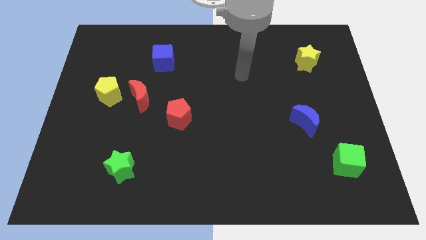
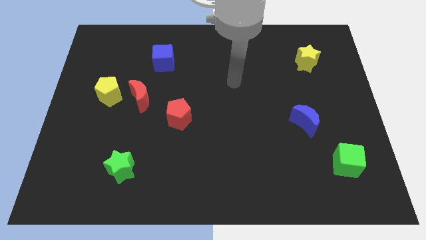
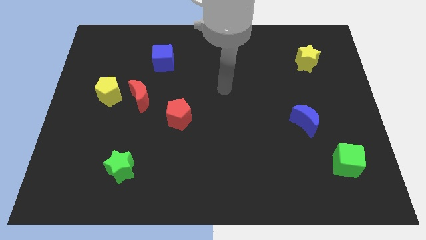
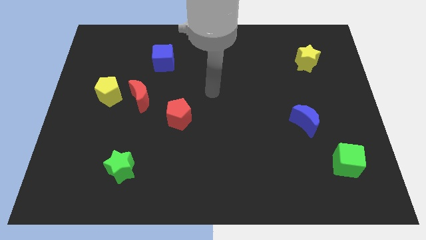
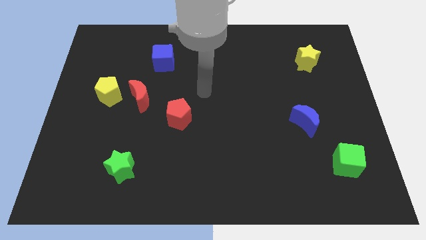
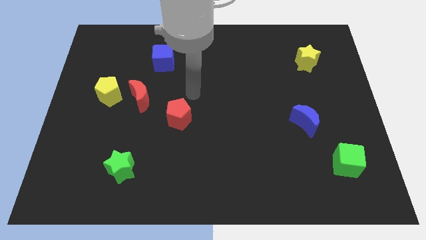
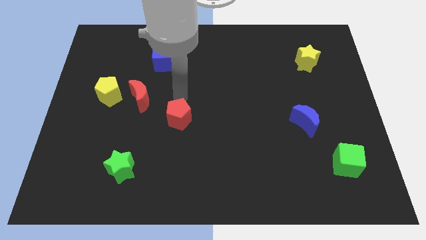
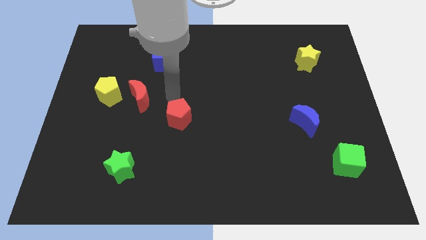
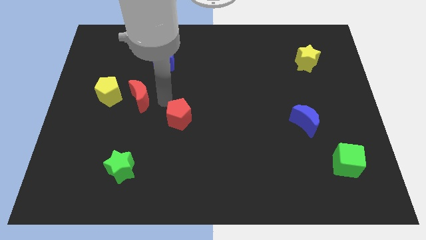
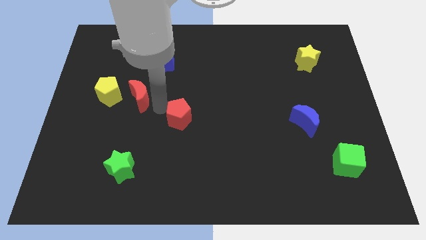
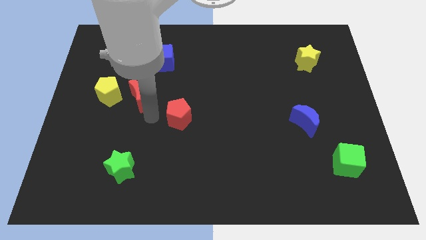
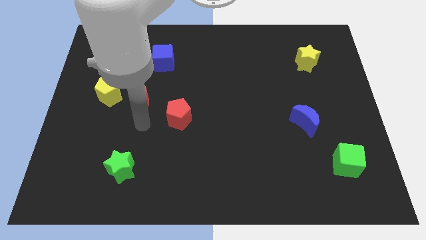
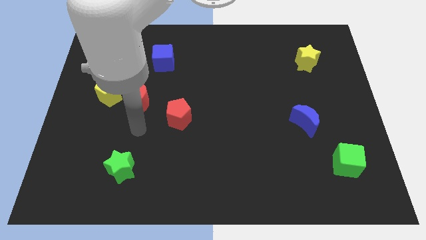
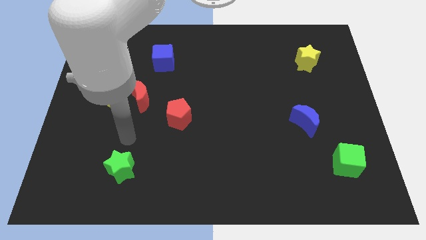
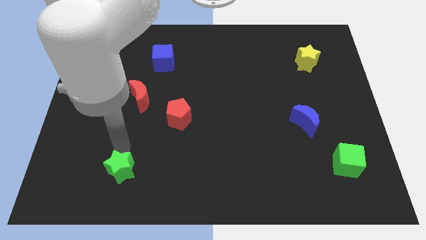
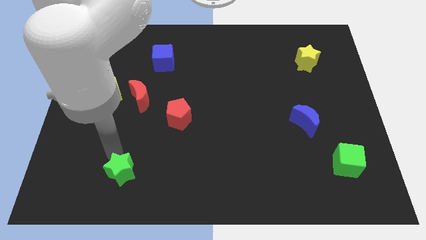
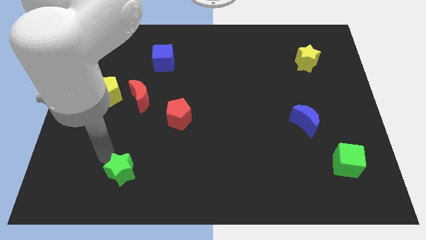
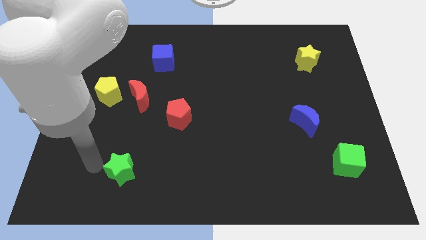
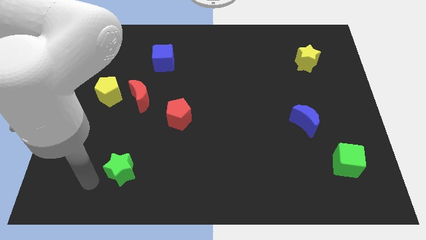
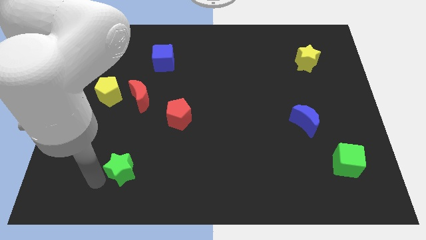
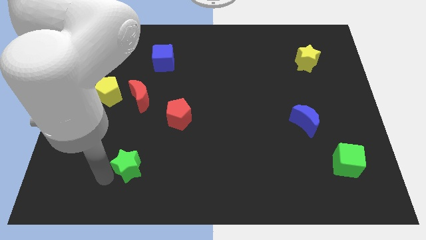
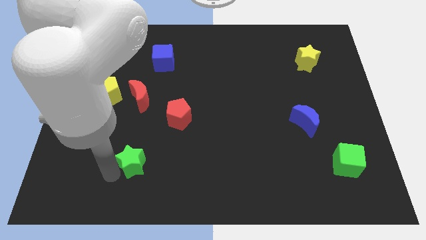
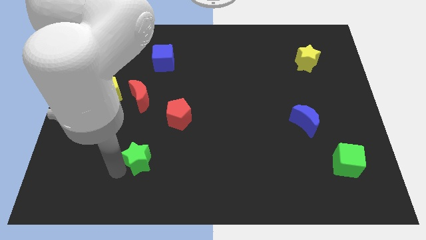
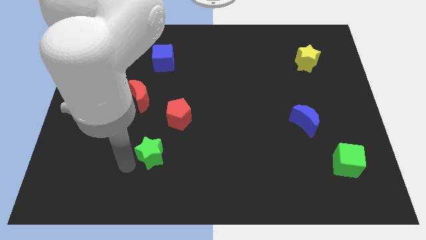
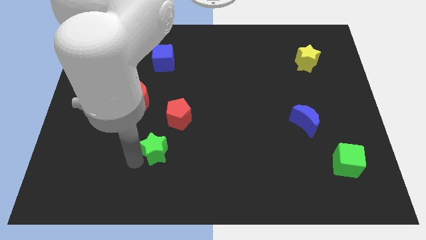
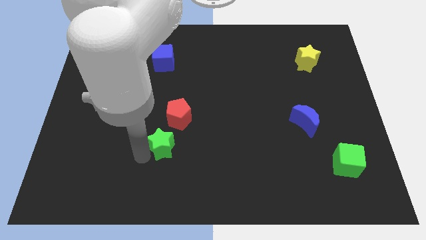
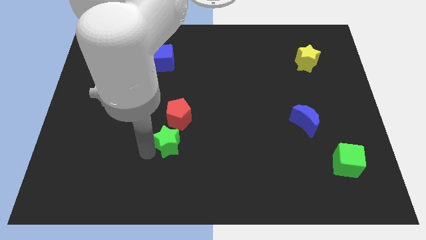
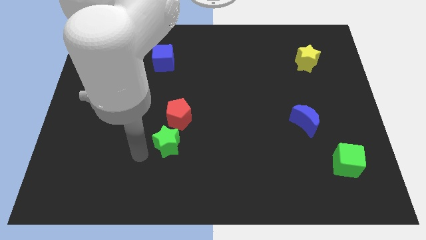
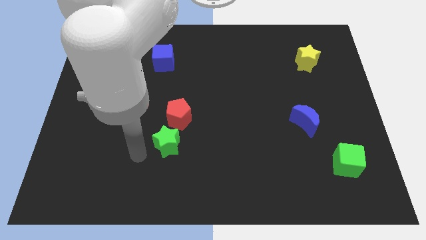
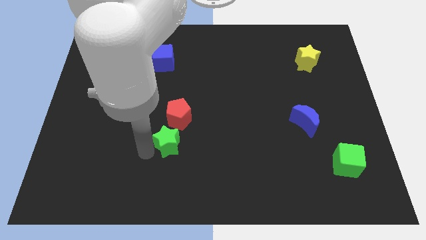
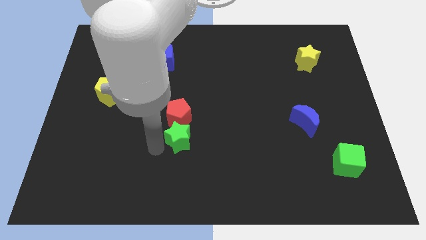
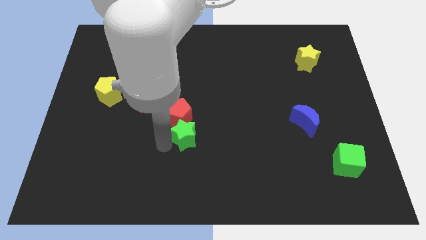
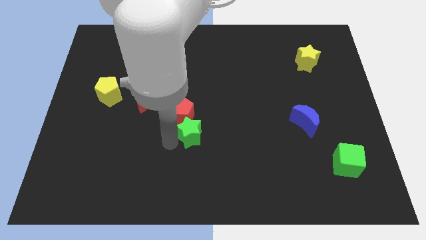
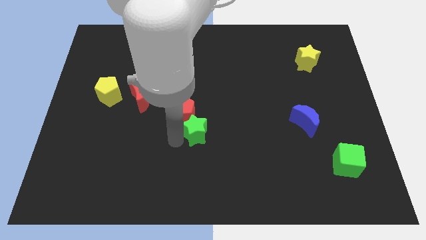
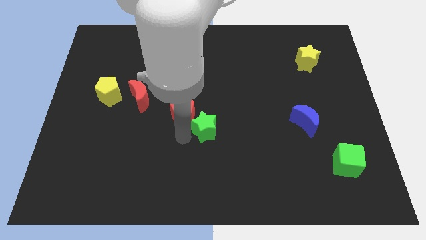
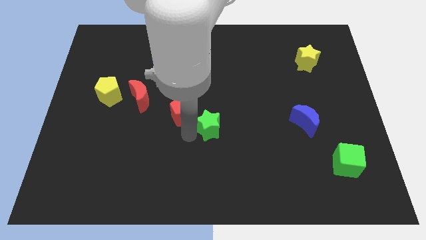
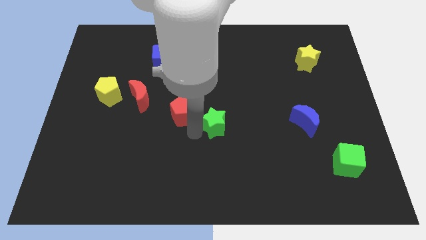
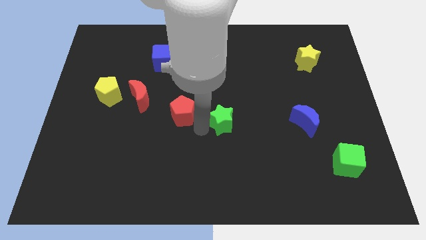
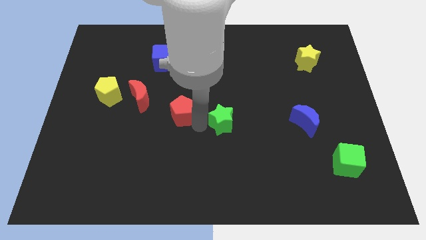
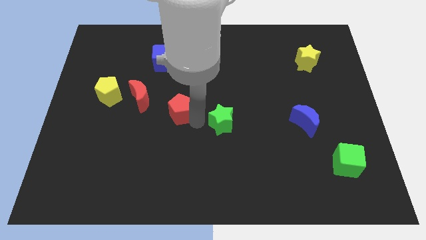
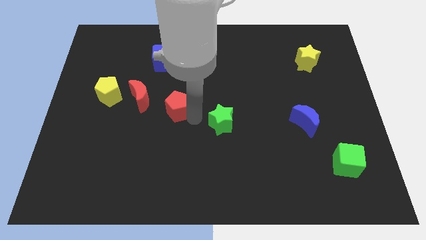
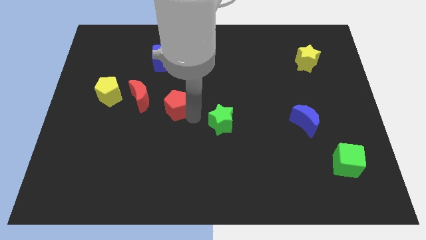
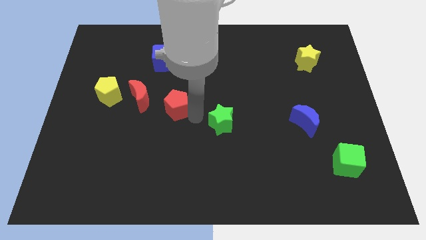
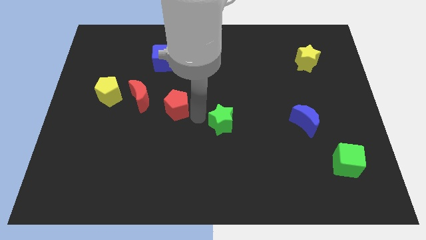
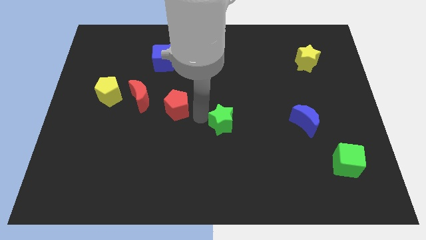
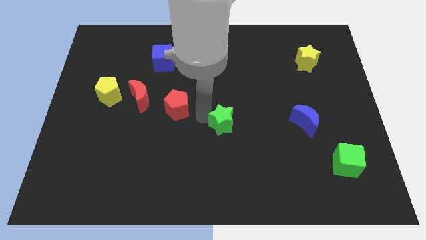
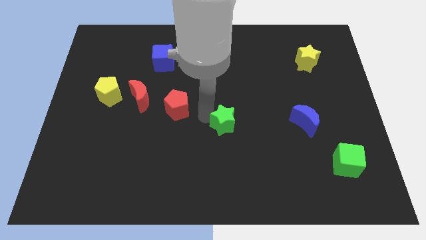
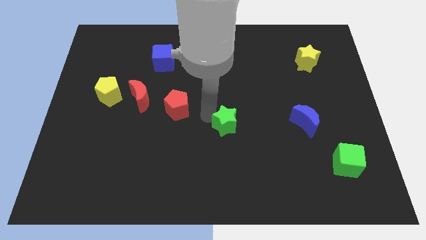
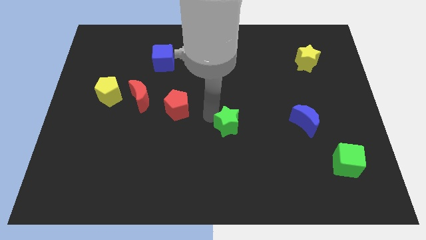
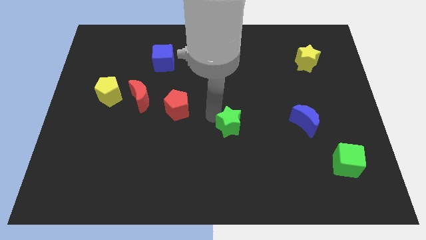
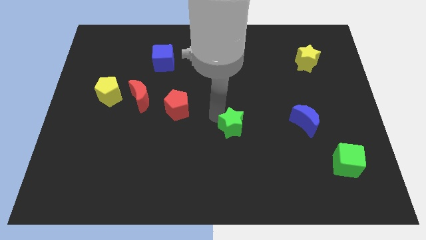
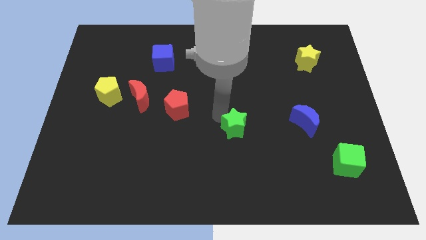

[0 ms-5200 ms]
push the green star to the left side of the blue moon
